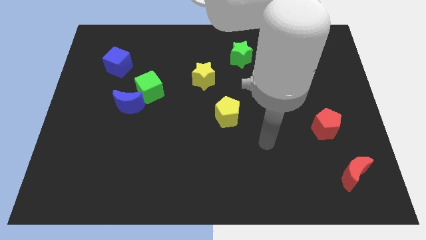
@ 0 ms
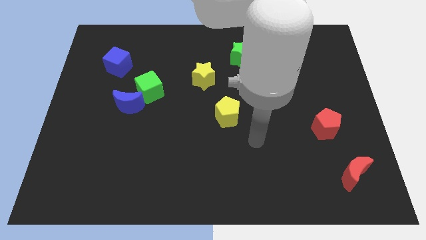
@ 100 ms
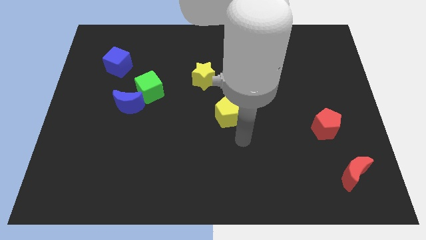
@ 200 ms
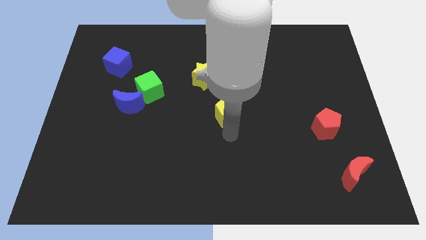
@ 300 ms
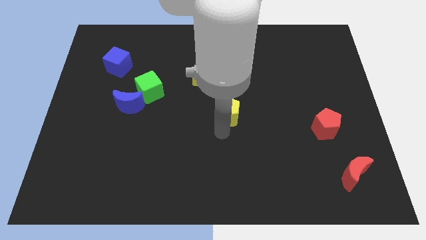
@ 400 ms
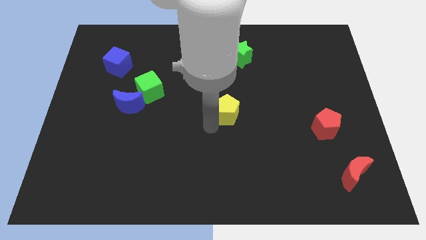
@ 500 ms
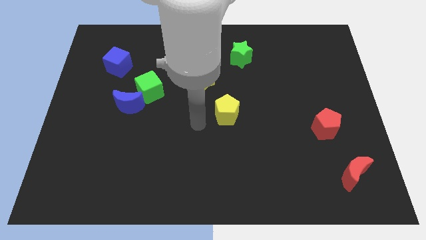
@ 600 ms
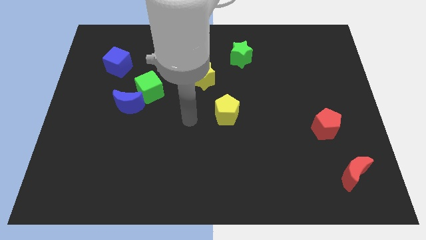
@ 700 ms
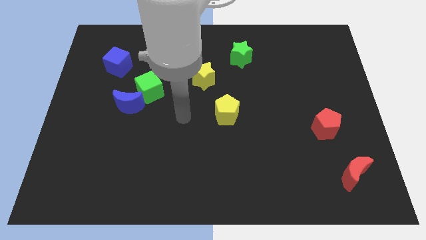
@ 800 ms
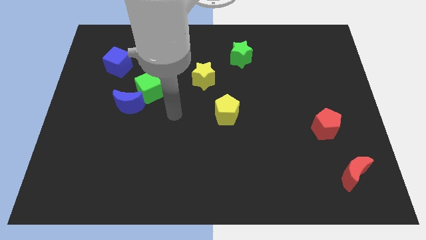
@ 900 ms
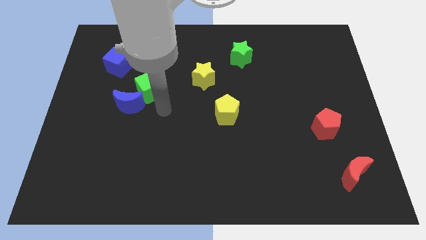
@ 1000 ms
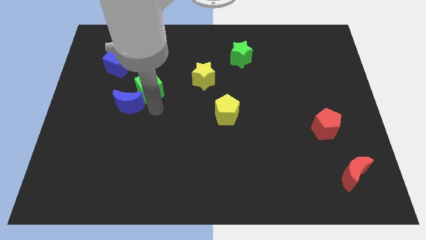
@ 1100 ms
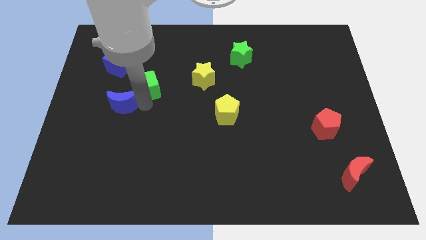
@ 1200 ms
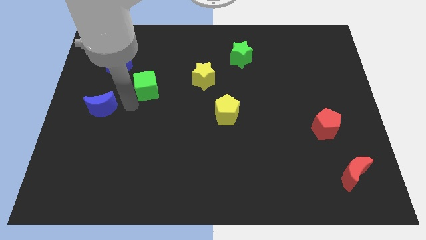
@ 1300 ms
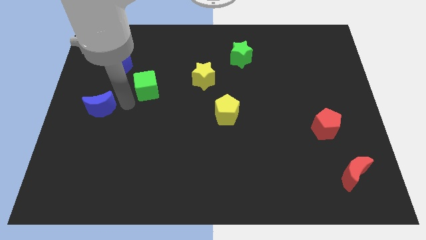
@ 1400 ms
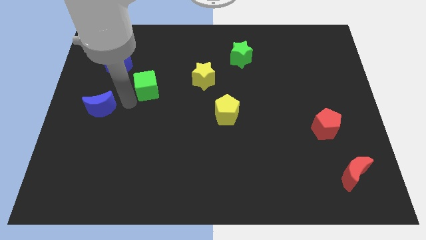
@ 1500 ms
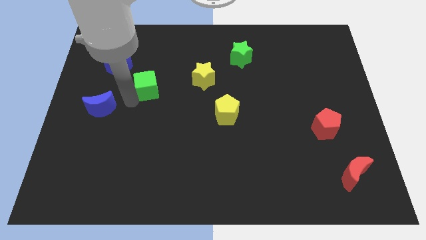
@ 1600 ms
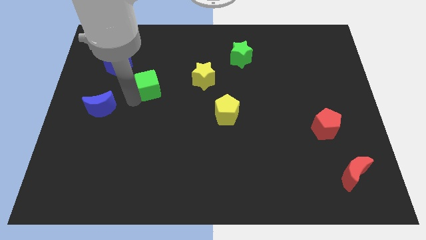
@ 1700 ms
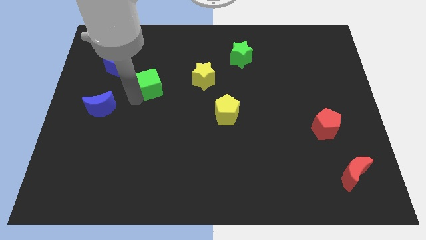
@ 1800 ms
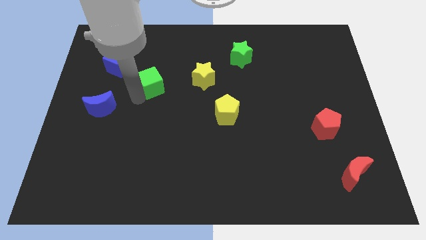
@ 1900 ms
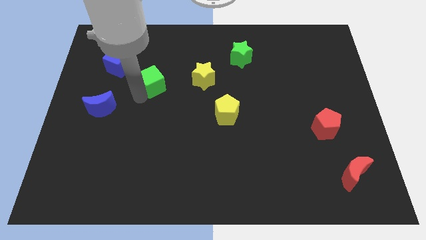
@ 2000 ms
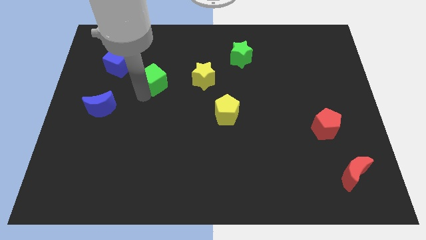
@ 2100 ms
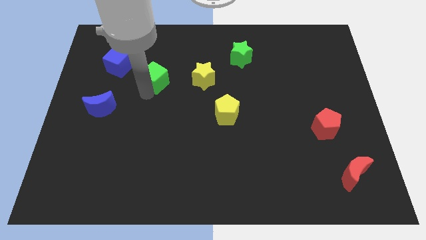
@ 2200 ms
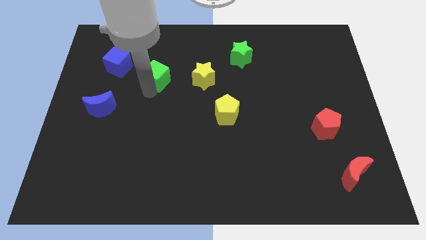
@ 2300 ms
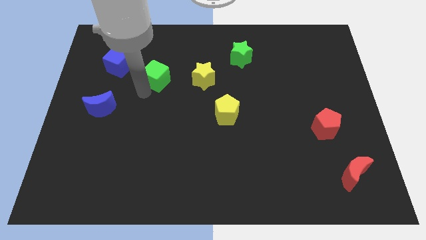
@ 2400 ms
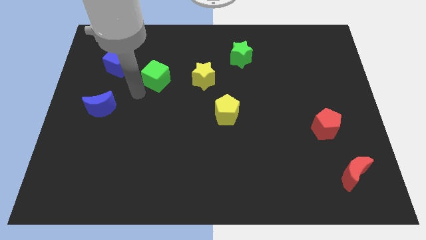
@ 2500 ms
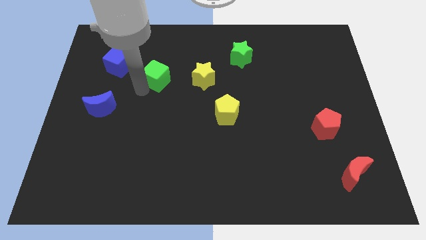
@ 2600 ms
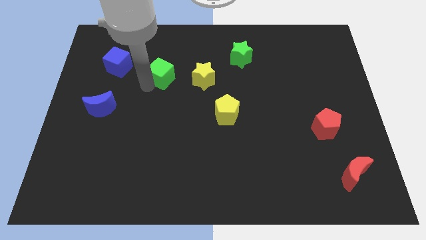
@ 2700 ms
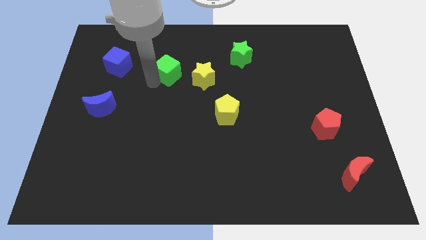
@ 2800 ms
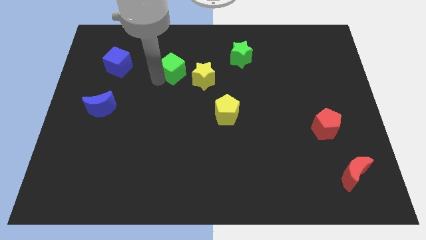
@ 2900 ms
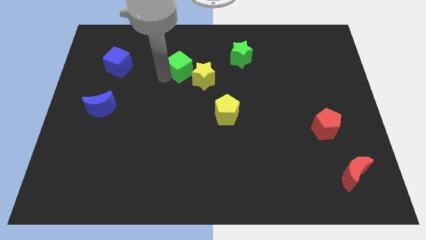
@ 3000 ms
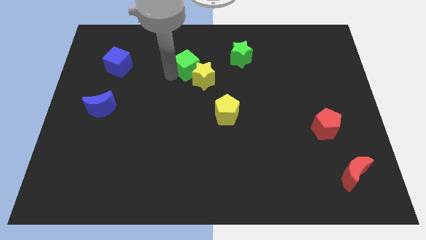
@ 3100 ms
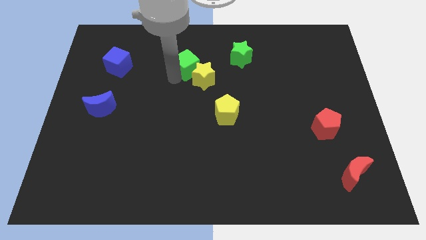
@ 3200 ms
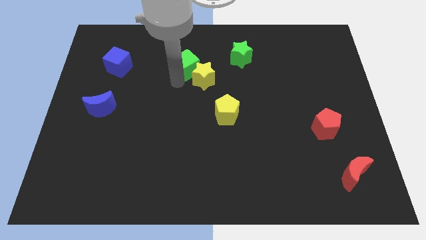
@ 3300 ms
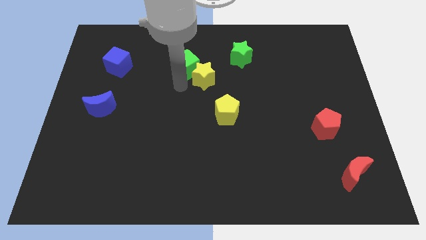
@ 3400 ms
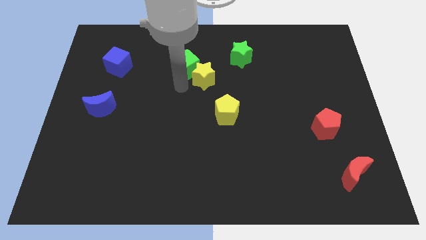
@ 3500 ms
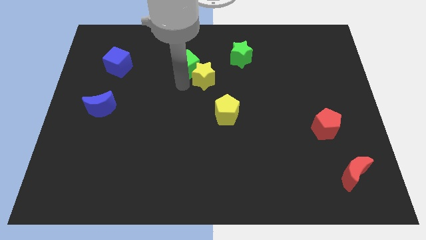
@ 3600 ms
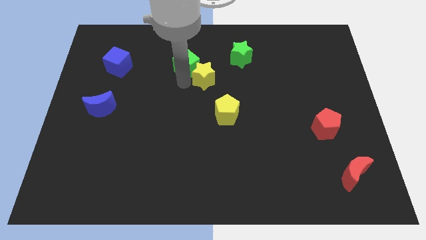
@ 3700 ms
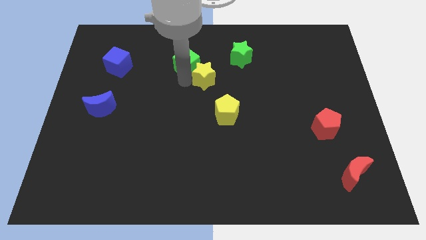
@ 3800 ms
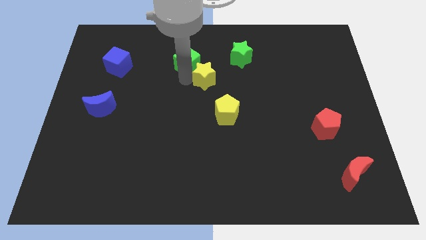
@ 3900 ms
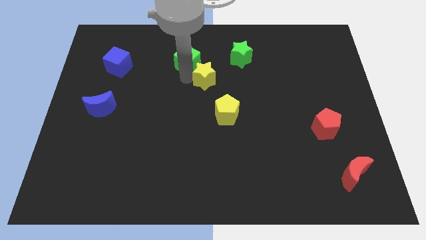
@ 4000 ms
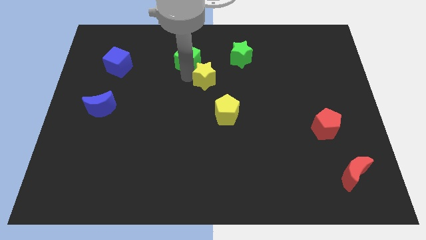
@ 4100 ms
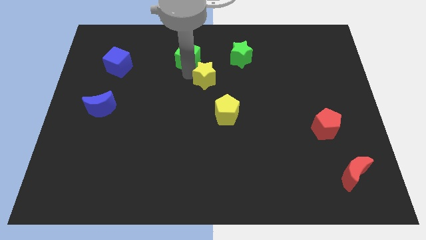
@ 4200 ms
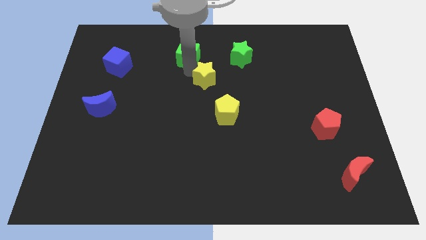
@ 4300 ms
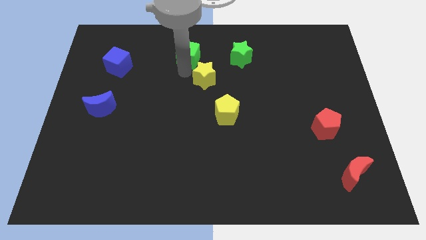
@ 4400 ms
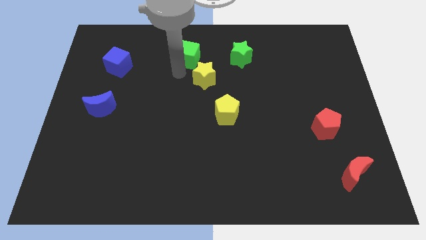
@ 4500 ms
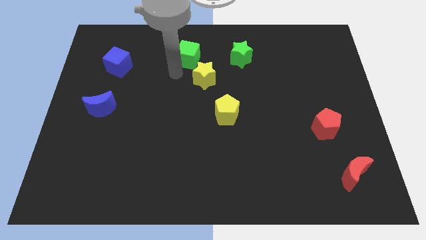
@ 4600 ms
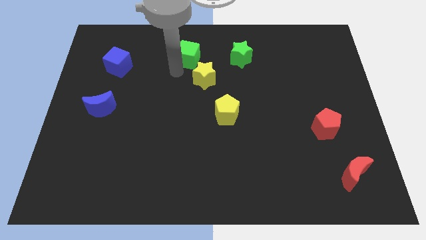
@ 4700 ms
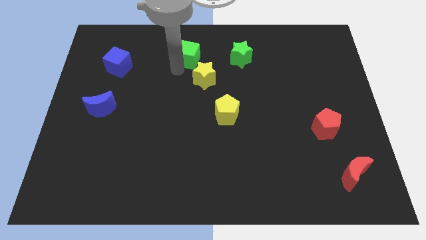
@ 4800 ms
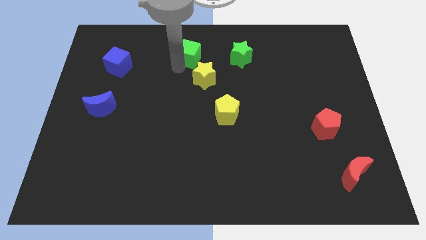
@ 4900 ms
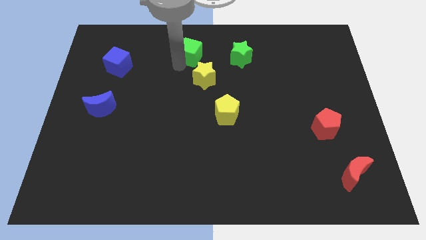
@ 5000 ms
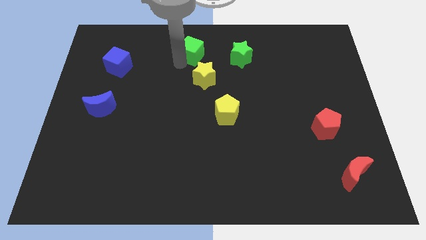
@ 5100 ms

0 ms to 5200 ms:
slide the green cube to the top
